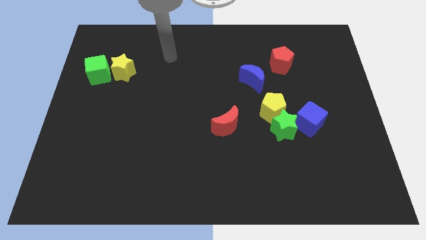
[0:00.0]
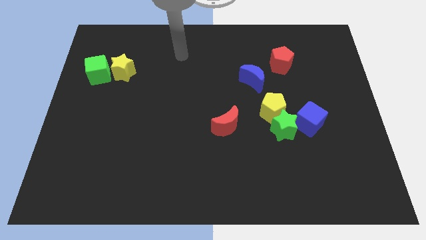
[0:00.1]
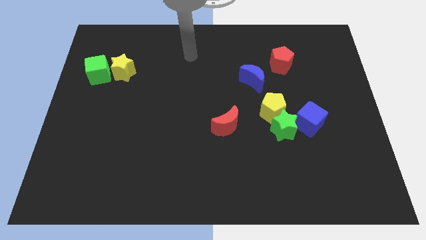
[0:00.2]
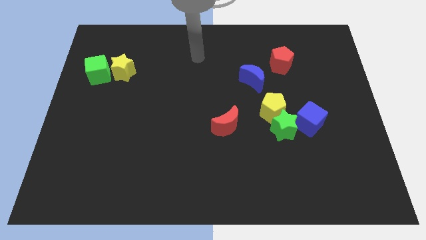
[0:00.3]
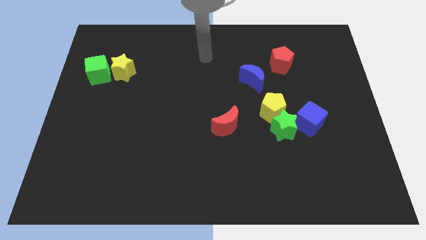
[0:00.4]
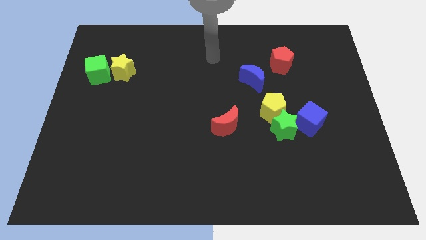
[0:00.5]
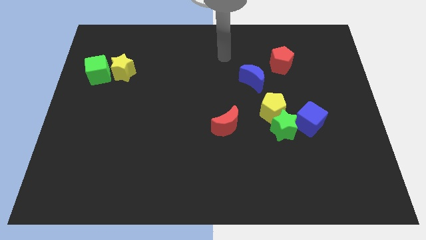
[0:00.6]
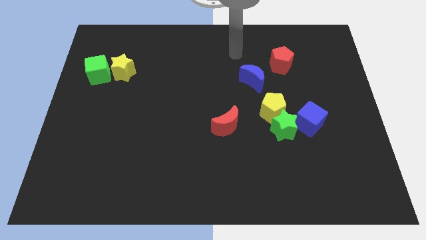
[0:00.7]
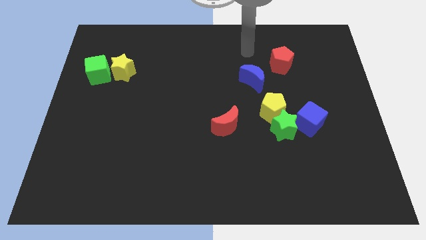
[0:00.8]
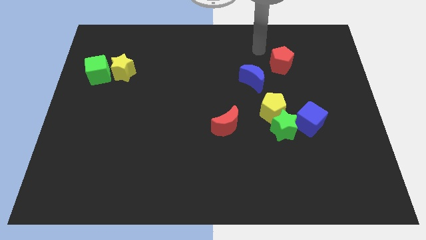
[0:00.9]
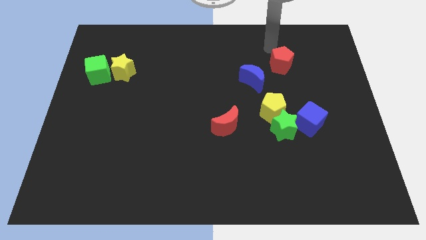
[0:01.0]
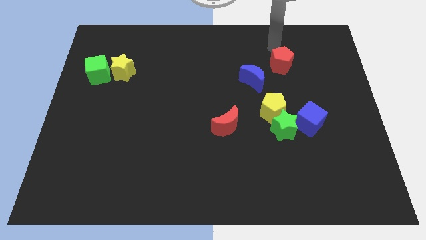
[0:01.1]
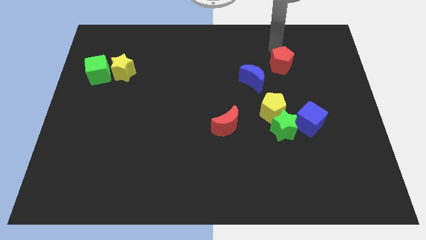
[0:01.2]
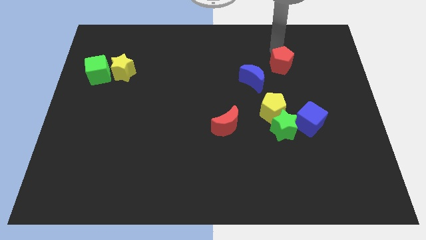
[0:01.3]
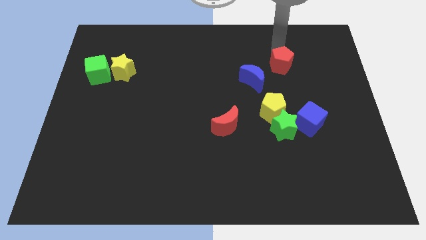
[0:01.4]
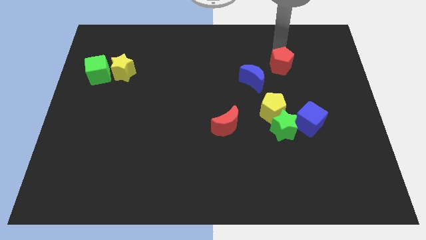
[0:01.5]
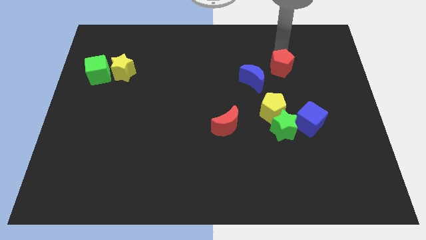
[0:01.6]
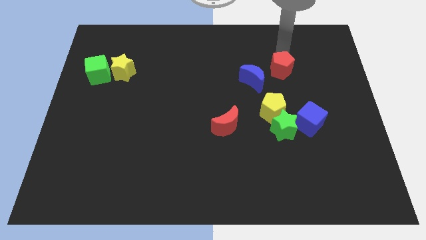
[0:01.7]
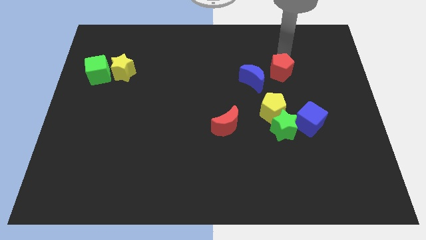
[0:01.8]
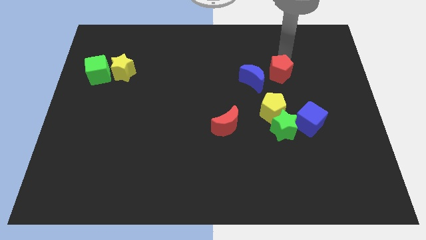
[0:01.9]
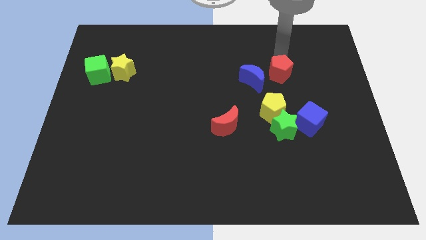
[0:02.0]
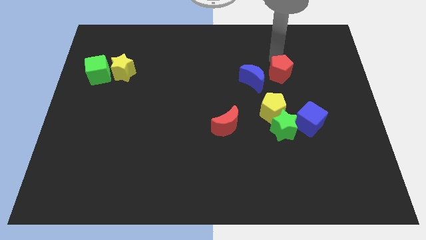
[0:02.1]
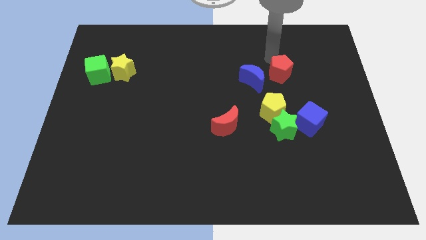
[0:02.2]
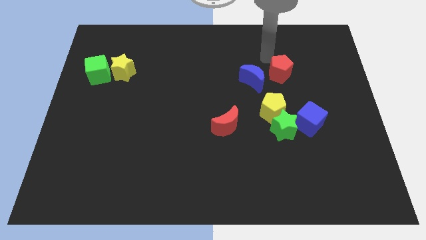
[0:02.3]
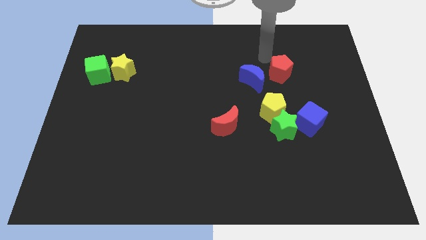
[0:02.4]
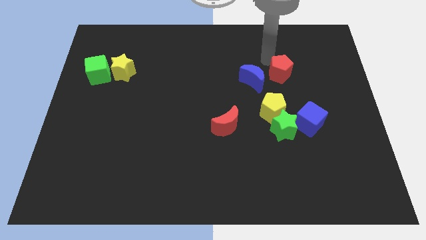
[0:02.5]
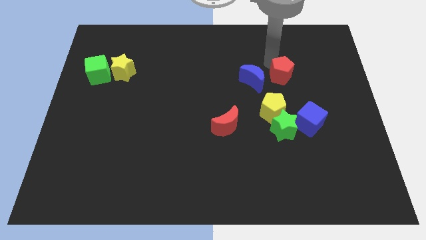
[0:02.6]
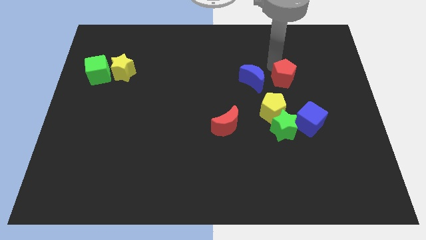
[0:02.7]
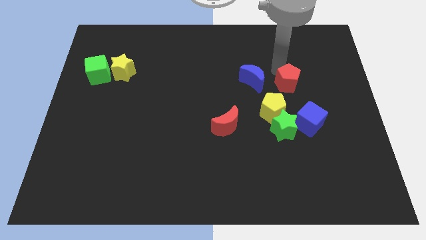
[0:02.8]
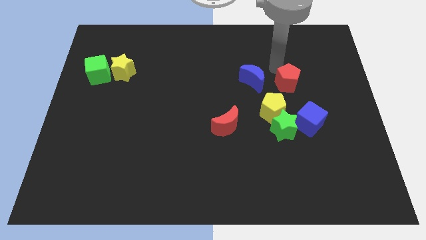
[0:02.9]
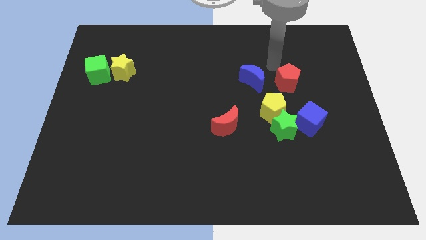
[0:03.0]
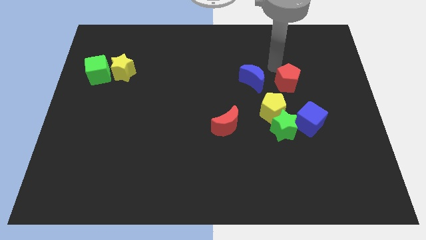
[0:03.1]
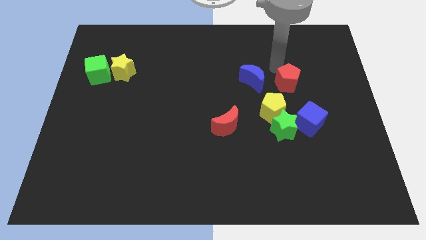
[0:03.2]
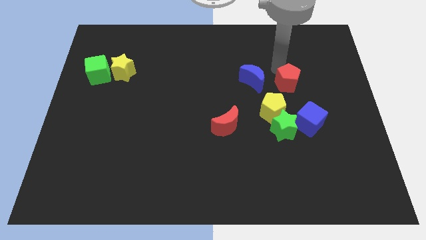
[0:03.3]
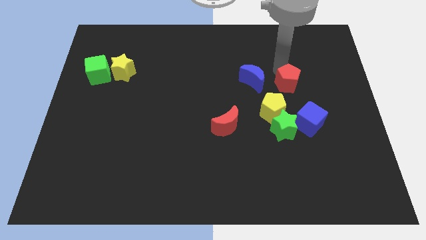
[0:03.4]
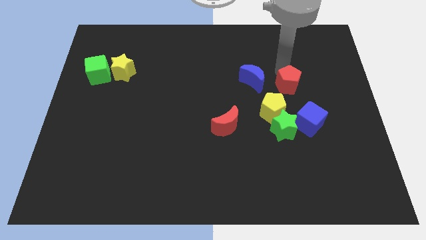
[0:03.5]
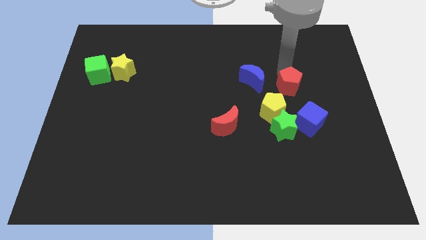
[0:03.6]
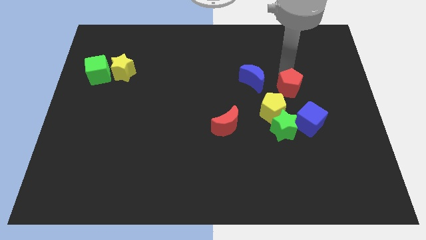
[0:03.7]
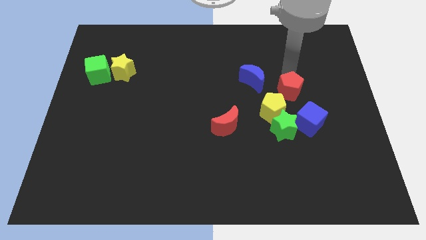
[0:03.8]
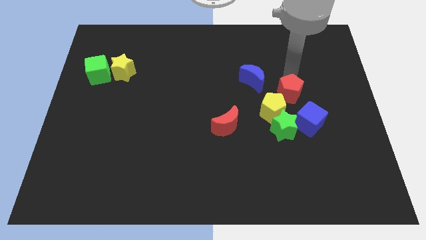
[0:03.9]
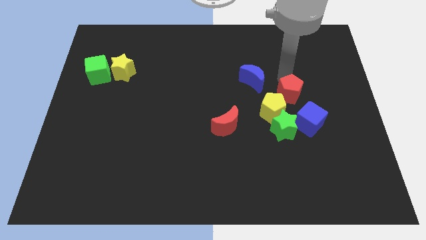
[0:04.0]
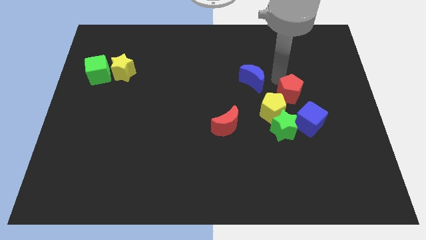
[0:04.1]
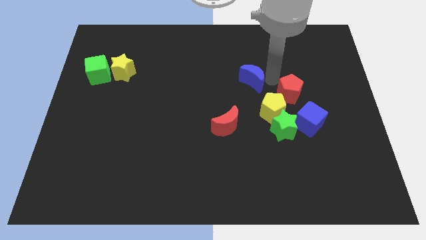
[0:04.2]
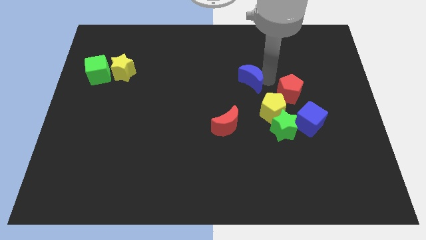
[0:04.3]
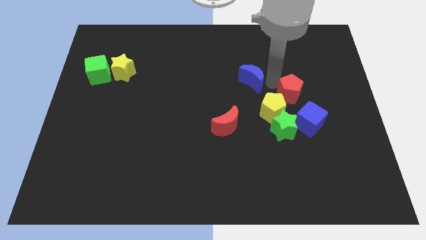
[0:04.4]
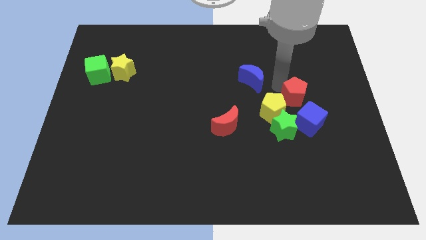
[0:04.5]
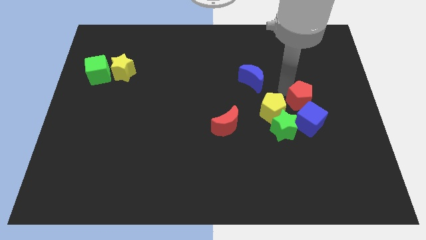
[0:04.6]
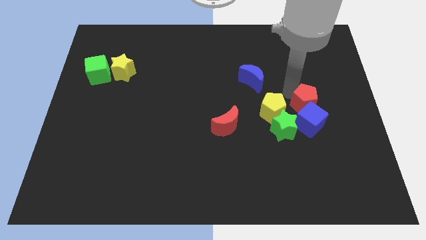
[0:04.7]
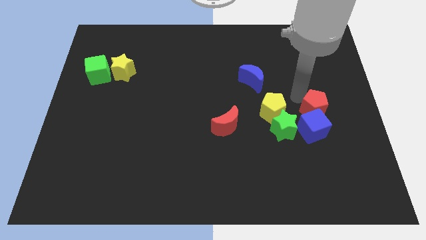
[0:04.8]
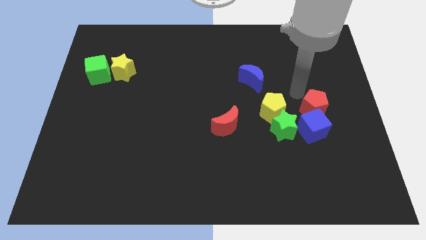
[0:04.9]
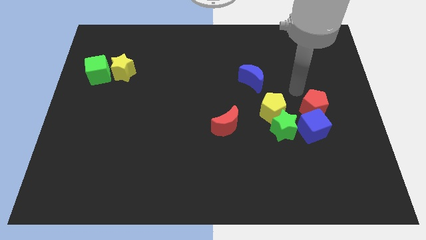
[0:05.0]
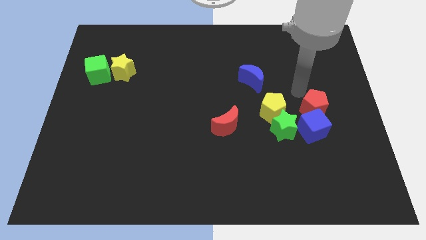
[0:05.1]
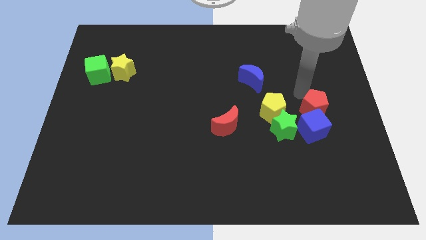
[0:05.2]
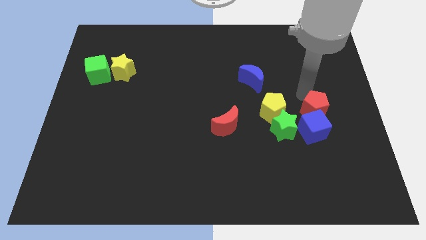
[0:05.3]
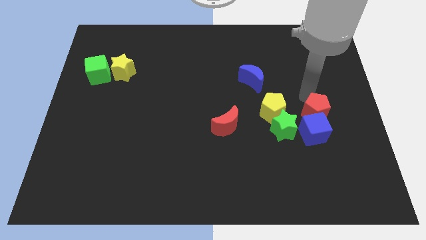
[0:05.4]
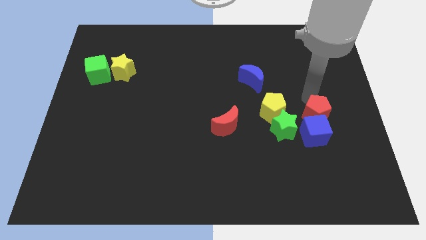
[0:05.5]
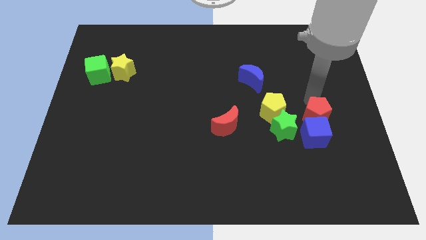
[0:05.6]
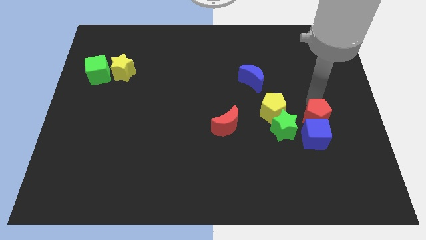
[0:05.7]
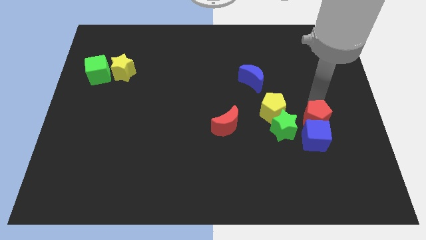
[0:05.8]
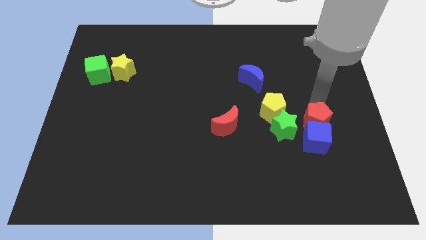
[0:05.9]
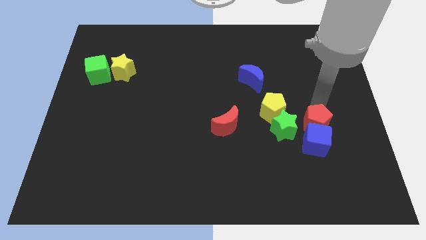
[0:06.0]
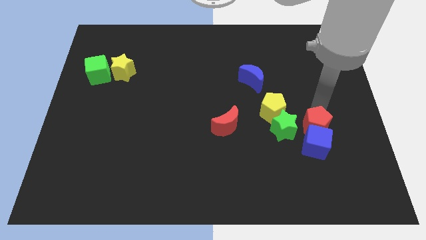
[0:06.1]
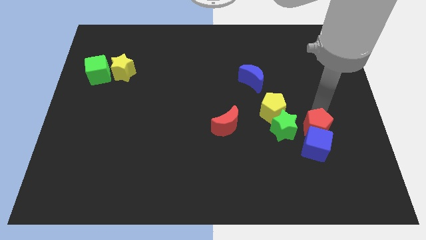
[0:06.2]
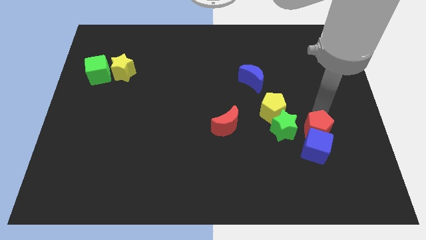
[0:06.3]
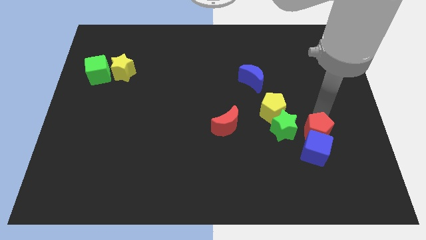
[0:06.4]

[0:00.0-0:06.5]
slide the red pentagon downwards

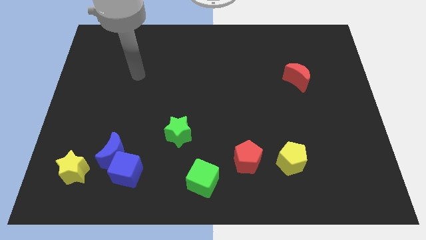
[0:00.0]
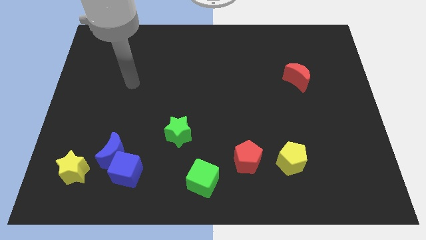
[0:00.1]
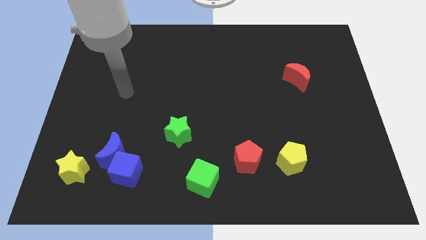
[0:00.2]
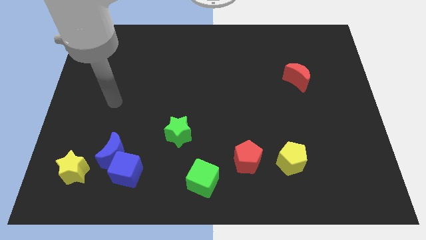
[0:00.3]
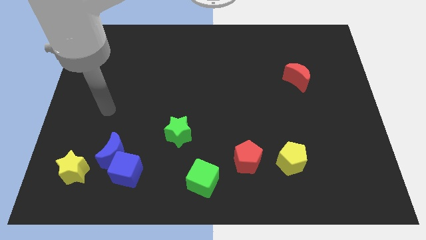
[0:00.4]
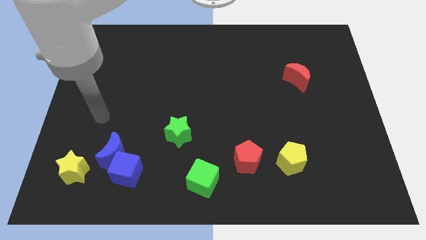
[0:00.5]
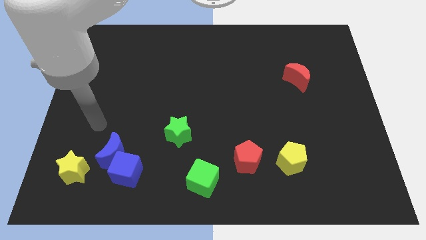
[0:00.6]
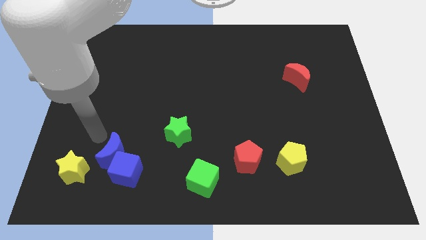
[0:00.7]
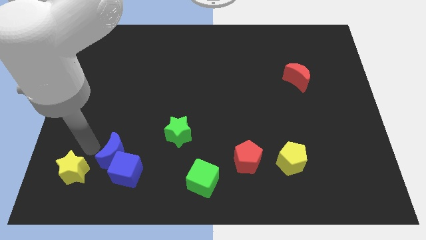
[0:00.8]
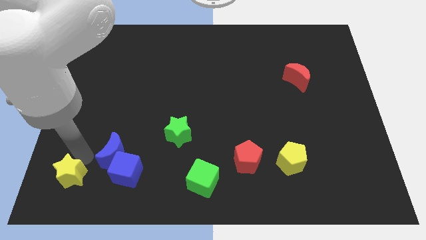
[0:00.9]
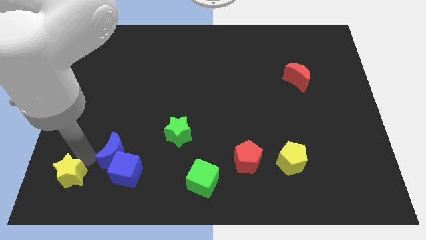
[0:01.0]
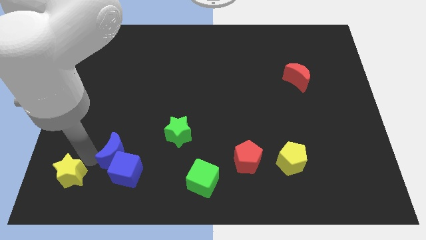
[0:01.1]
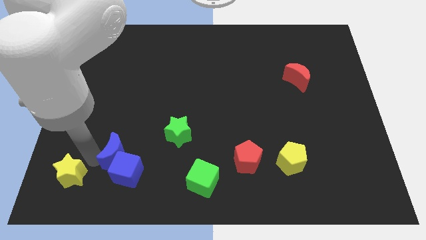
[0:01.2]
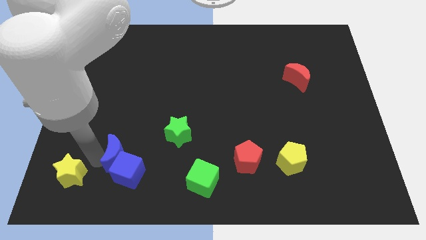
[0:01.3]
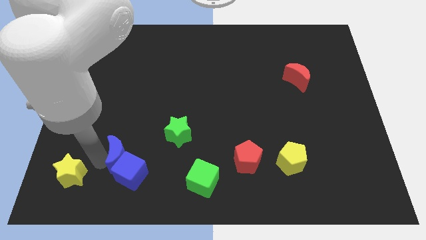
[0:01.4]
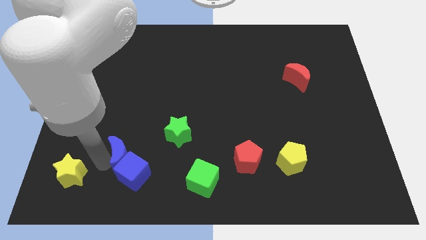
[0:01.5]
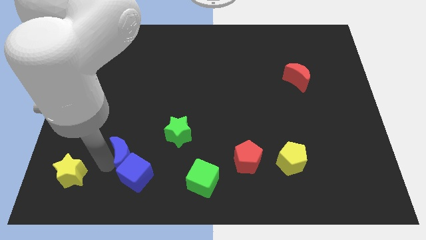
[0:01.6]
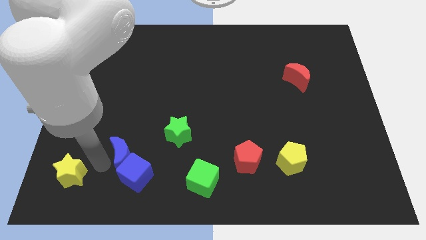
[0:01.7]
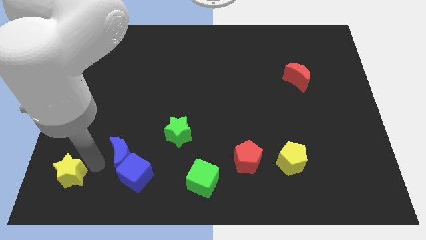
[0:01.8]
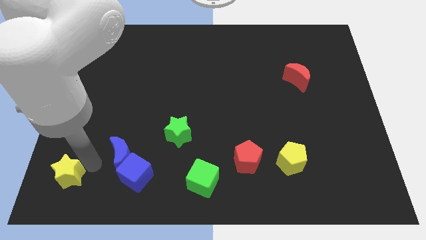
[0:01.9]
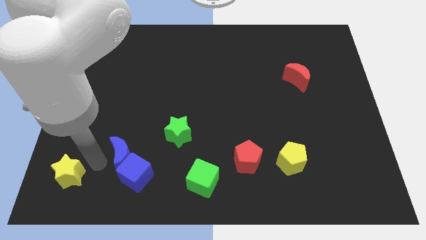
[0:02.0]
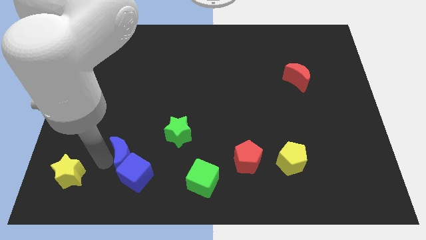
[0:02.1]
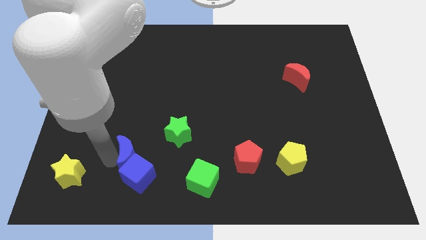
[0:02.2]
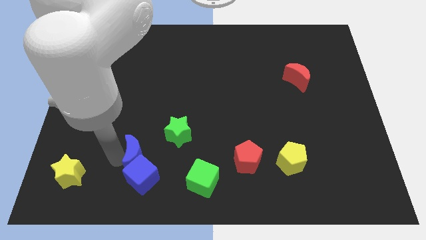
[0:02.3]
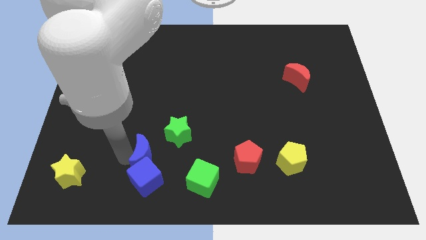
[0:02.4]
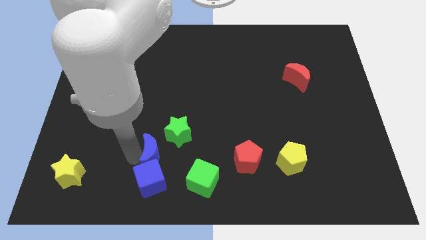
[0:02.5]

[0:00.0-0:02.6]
push the blue moon to the right a bit
